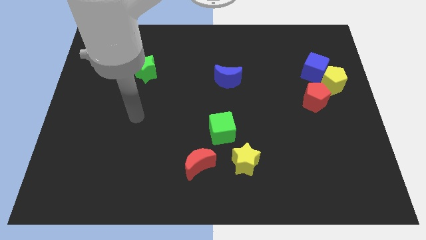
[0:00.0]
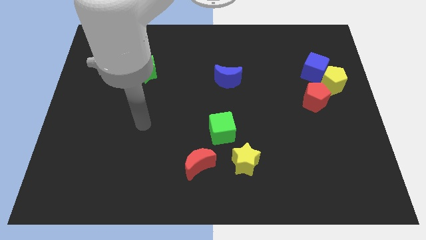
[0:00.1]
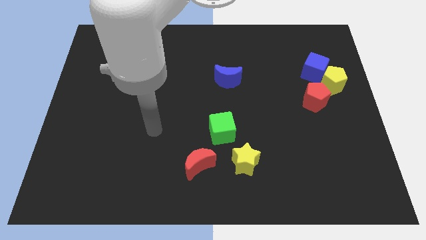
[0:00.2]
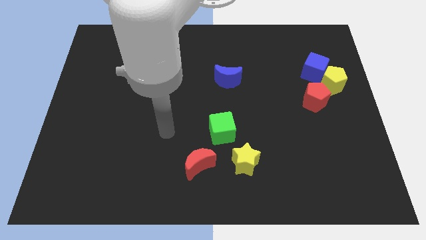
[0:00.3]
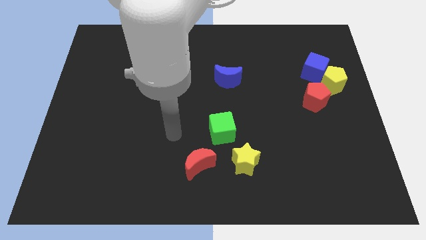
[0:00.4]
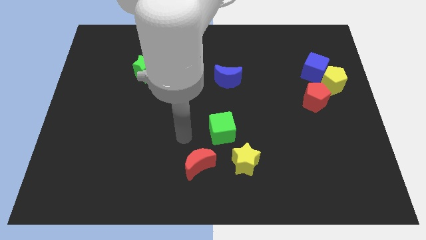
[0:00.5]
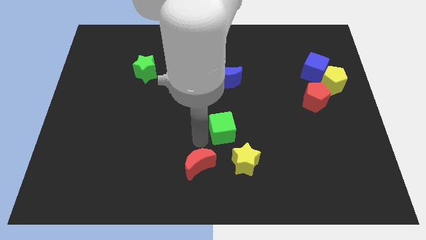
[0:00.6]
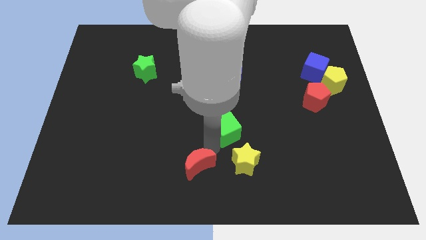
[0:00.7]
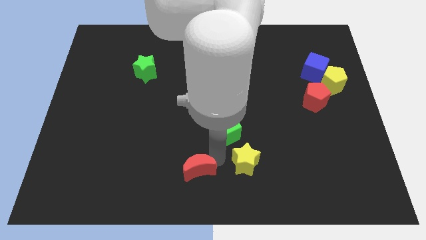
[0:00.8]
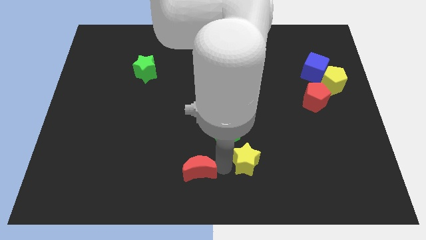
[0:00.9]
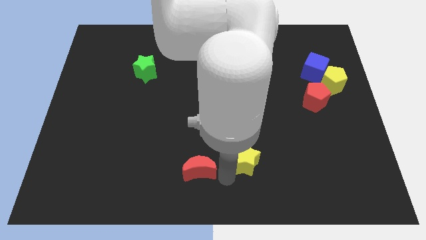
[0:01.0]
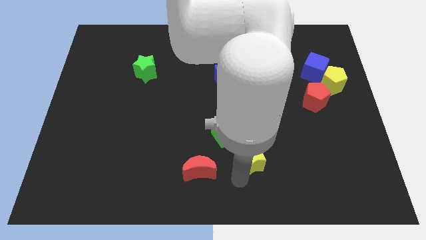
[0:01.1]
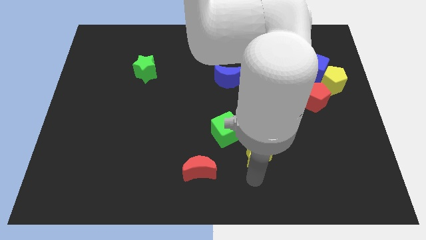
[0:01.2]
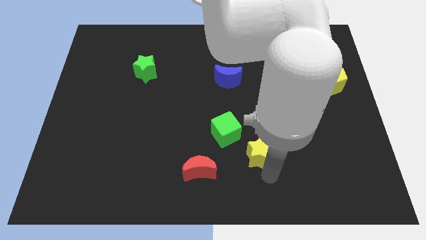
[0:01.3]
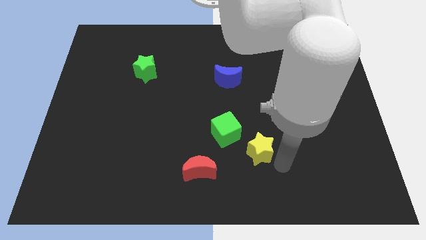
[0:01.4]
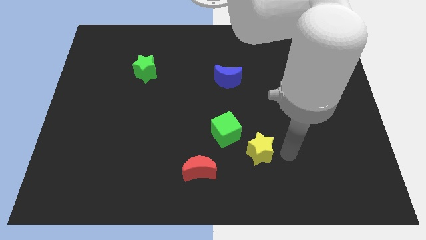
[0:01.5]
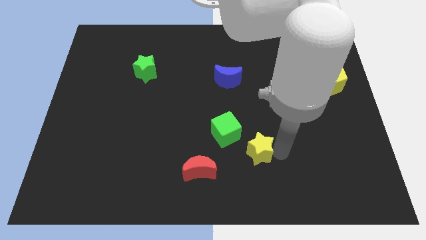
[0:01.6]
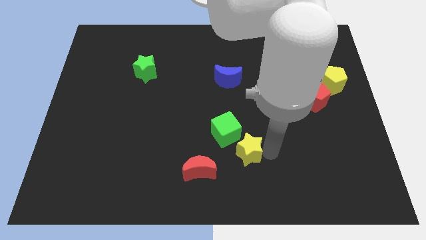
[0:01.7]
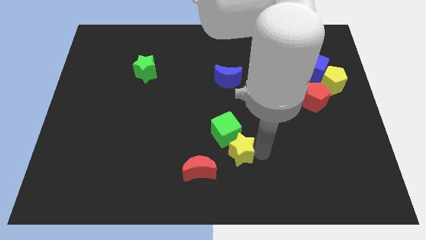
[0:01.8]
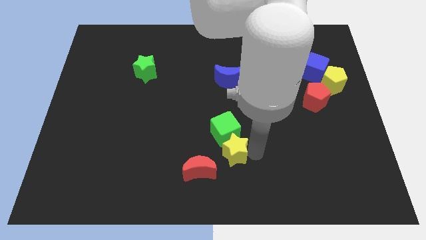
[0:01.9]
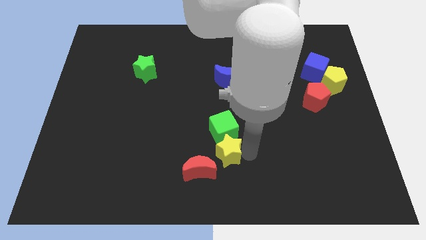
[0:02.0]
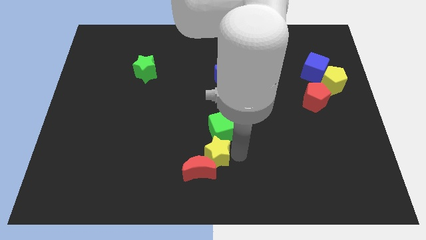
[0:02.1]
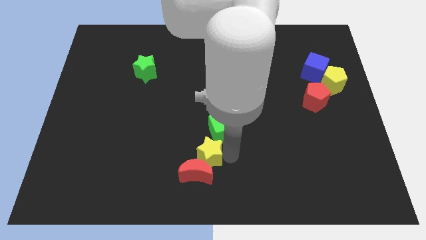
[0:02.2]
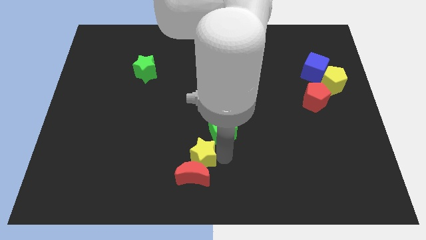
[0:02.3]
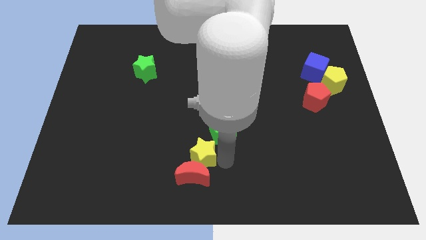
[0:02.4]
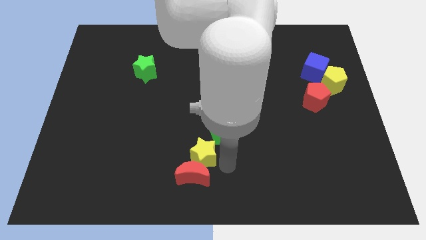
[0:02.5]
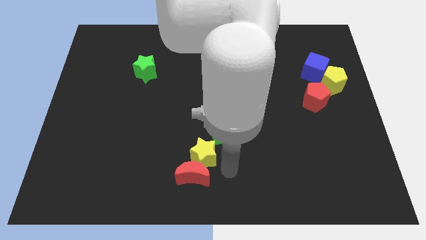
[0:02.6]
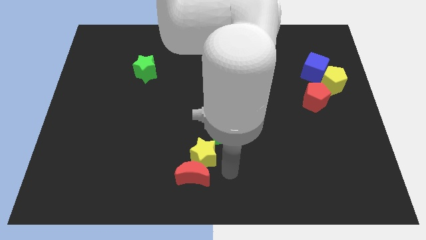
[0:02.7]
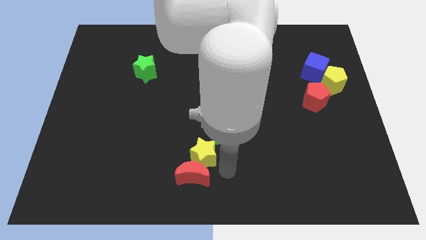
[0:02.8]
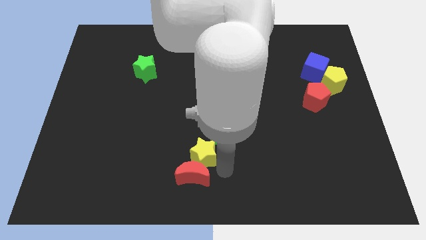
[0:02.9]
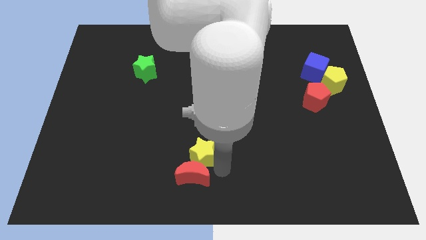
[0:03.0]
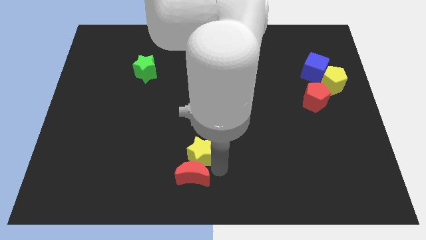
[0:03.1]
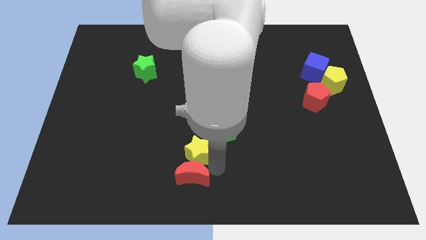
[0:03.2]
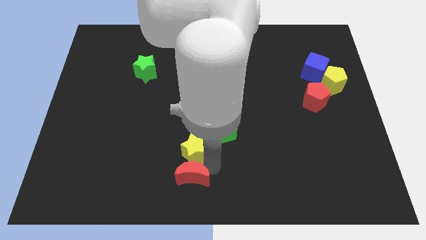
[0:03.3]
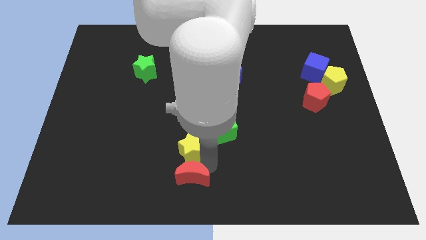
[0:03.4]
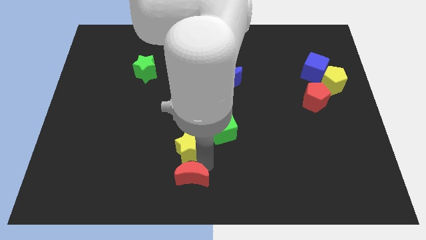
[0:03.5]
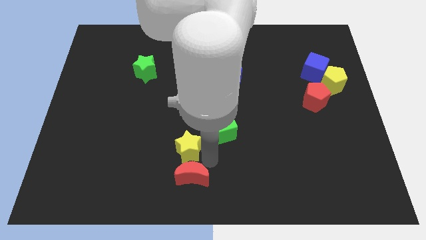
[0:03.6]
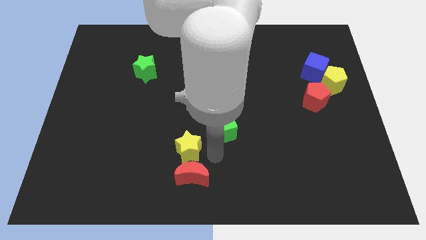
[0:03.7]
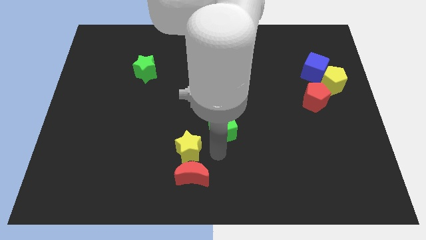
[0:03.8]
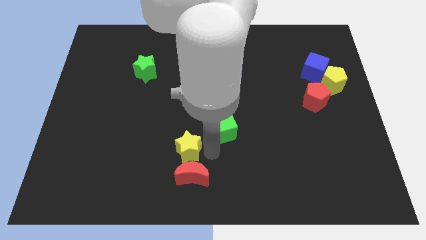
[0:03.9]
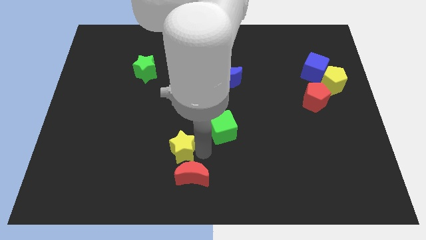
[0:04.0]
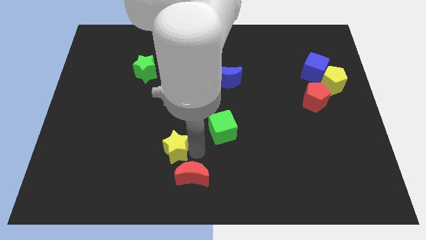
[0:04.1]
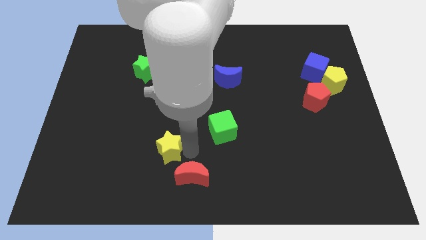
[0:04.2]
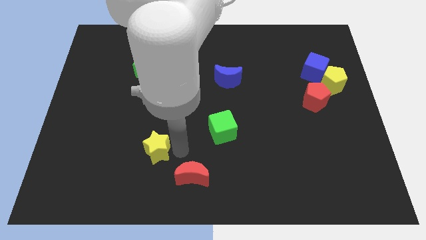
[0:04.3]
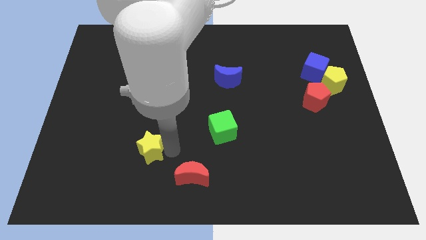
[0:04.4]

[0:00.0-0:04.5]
move the yellow star left

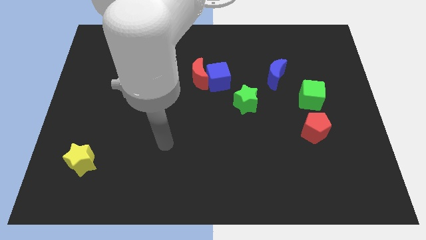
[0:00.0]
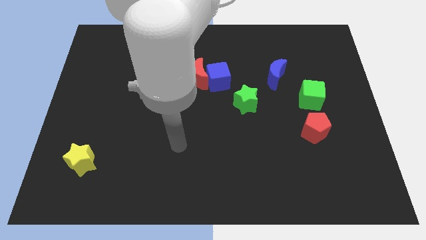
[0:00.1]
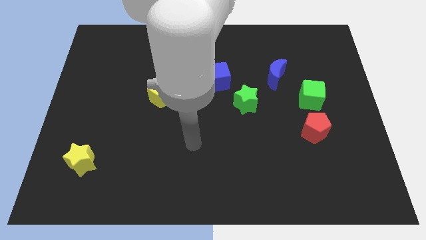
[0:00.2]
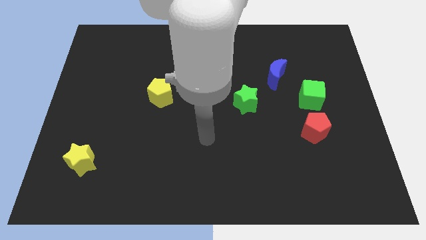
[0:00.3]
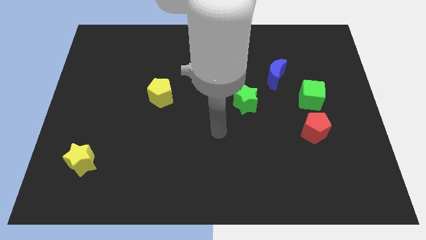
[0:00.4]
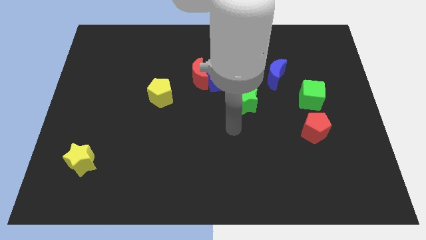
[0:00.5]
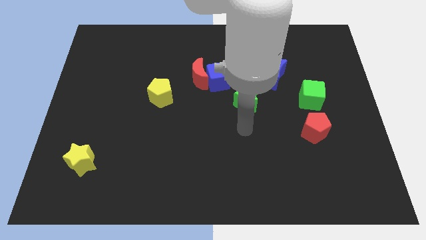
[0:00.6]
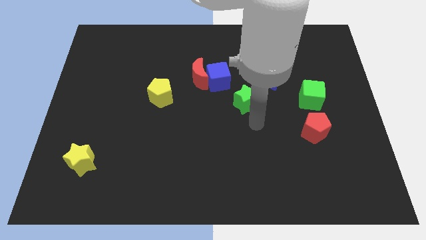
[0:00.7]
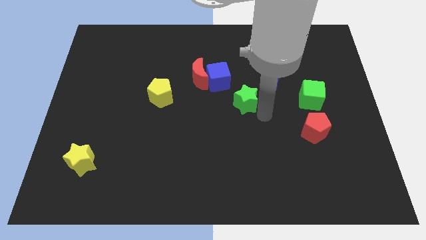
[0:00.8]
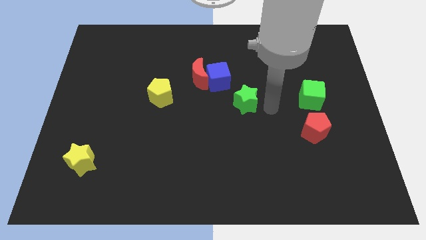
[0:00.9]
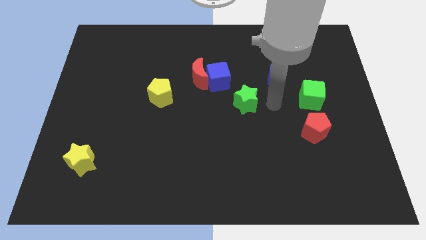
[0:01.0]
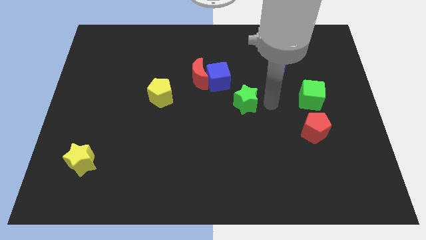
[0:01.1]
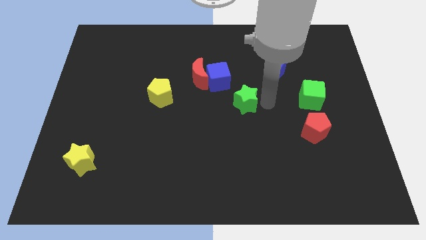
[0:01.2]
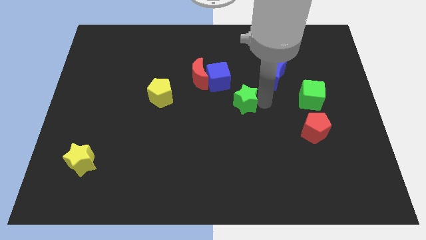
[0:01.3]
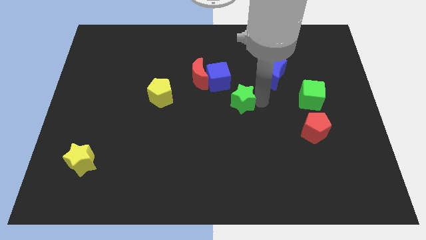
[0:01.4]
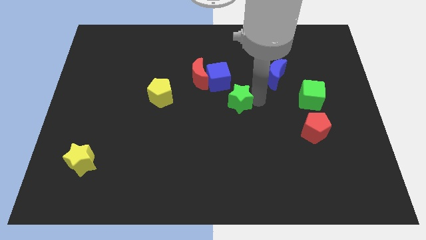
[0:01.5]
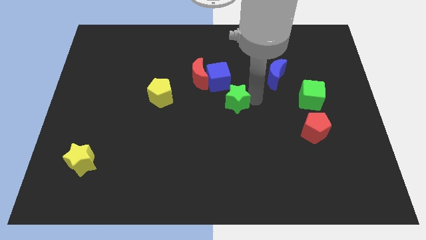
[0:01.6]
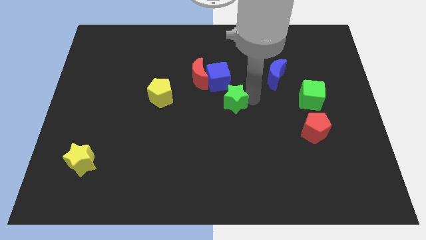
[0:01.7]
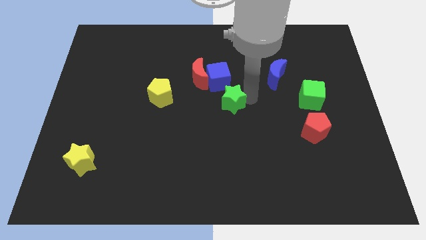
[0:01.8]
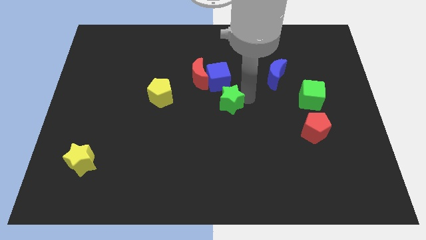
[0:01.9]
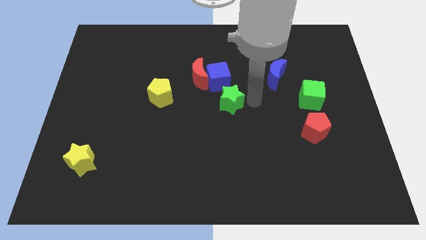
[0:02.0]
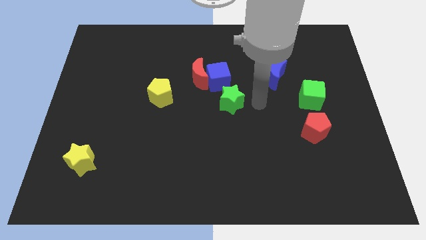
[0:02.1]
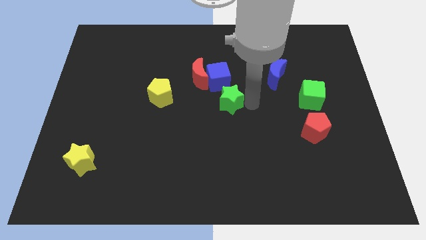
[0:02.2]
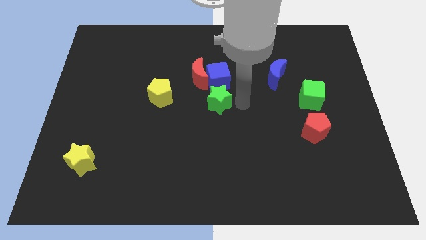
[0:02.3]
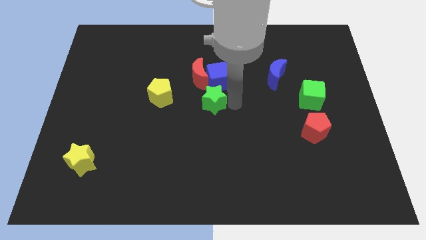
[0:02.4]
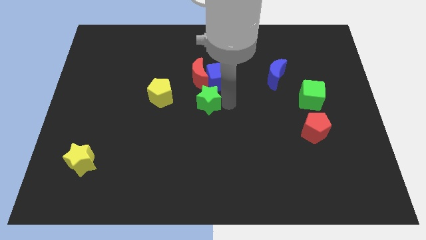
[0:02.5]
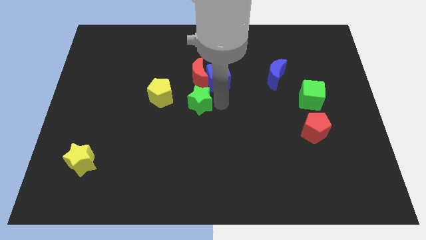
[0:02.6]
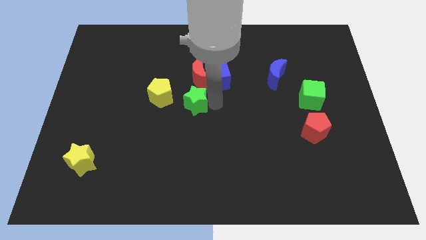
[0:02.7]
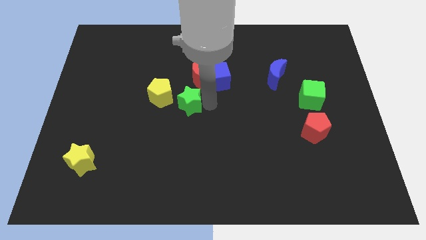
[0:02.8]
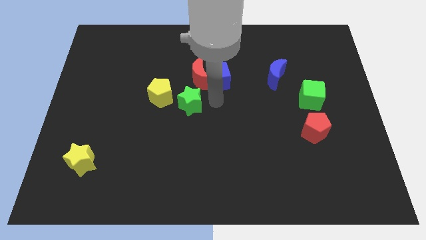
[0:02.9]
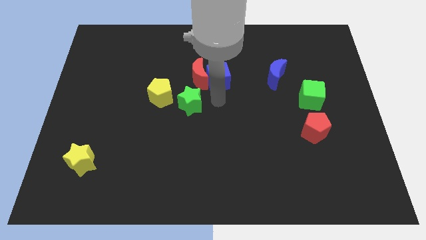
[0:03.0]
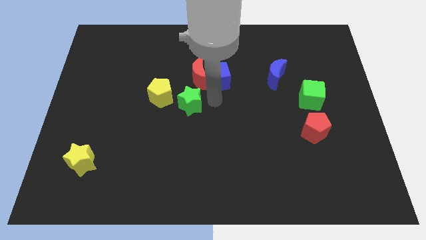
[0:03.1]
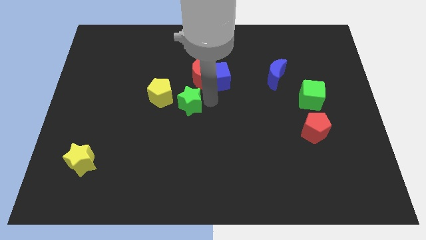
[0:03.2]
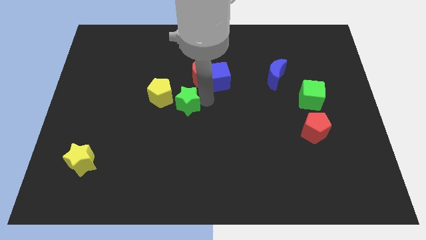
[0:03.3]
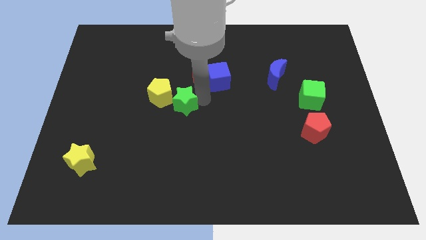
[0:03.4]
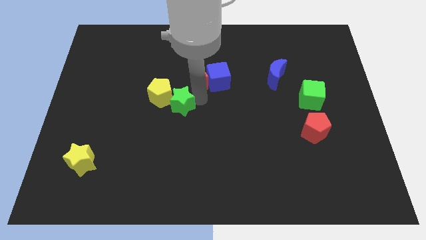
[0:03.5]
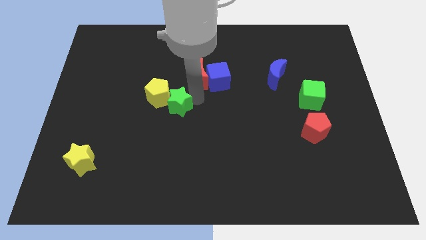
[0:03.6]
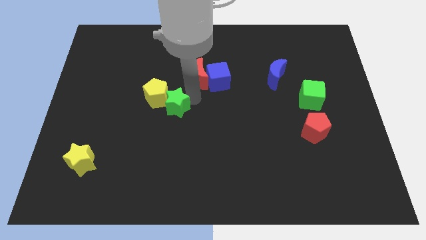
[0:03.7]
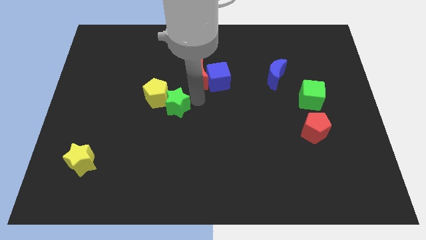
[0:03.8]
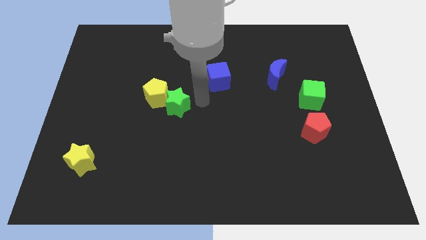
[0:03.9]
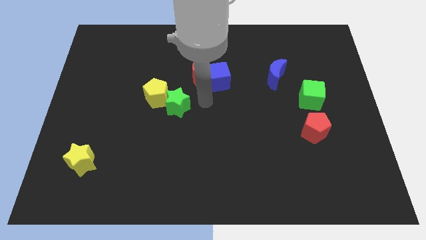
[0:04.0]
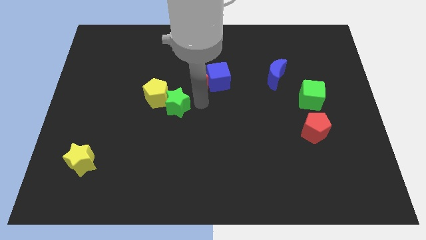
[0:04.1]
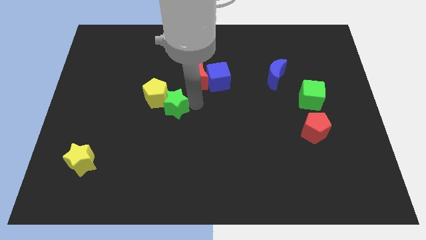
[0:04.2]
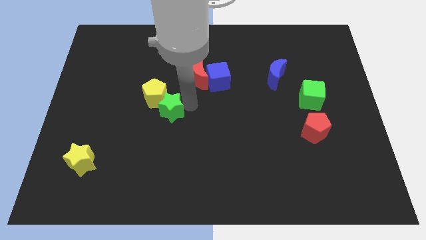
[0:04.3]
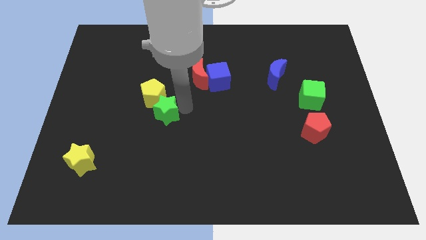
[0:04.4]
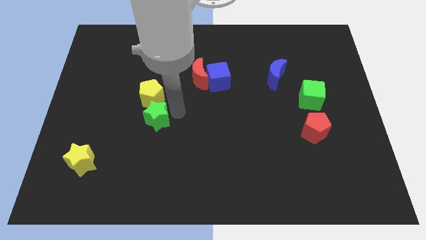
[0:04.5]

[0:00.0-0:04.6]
slide the green star to the left
